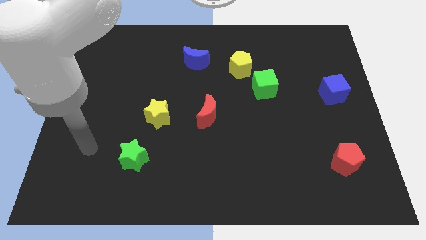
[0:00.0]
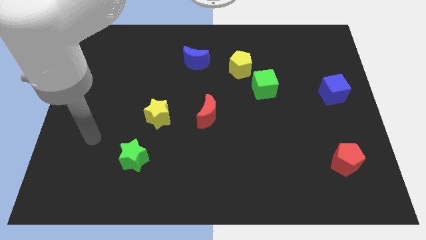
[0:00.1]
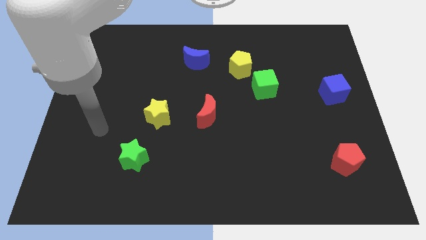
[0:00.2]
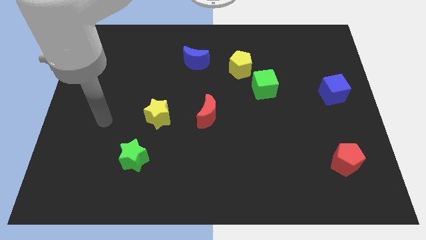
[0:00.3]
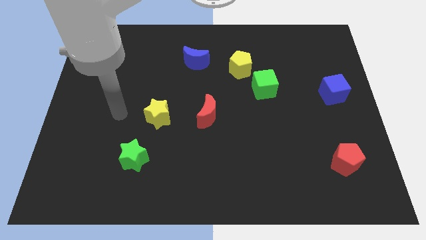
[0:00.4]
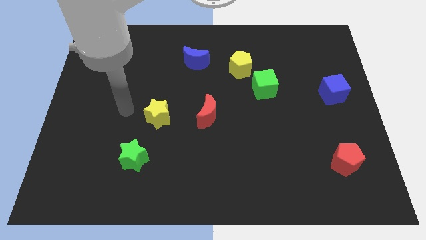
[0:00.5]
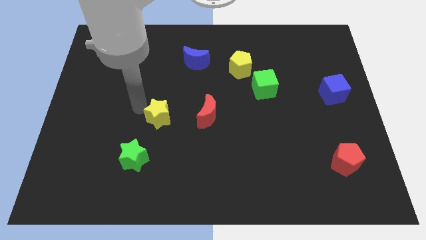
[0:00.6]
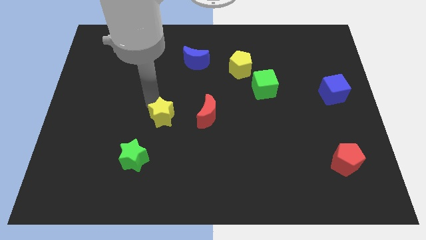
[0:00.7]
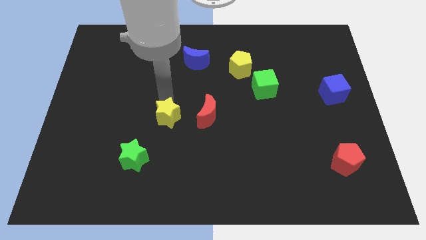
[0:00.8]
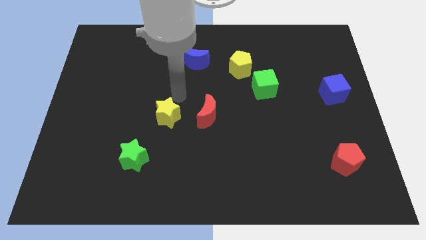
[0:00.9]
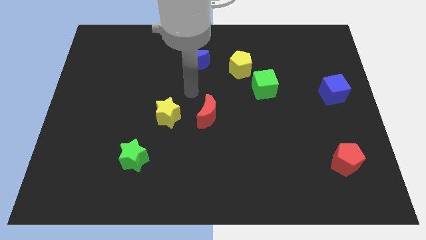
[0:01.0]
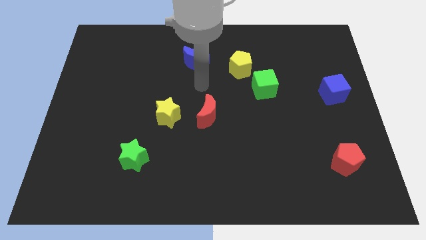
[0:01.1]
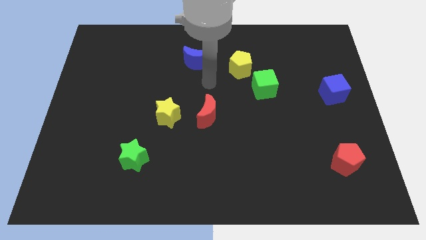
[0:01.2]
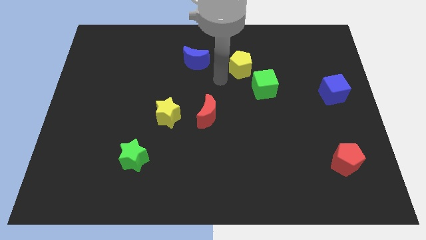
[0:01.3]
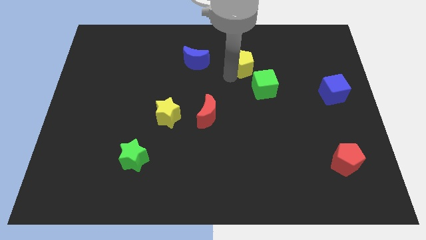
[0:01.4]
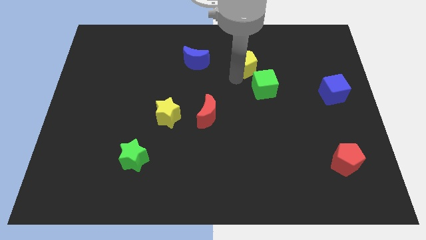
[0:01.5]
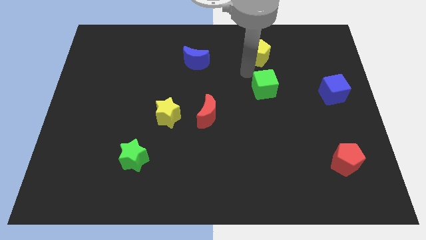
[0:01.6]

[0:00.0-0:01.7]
separate the green cube from the yellow pentagon

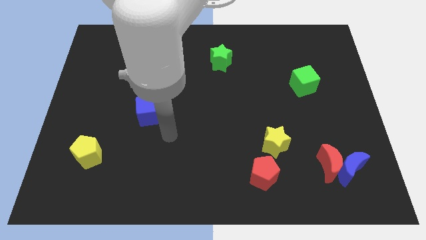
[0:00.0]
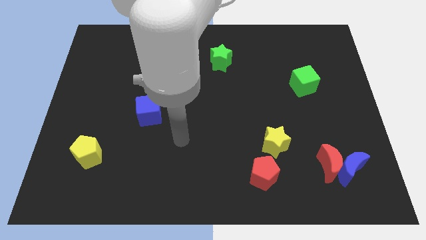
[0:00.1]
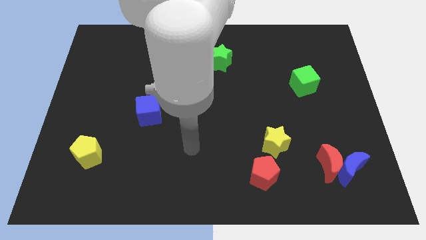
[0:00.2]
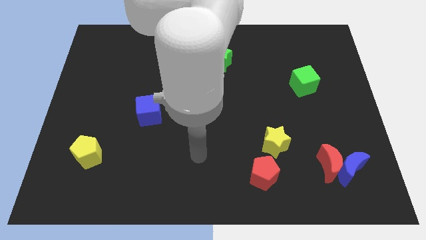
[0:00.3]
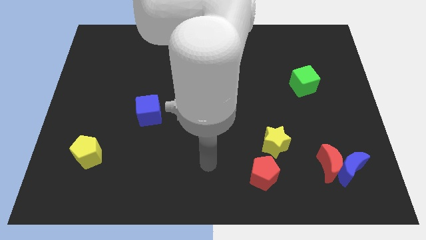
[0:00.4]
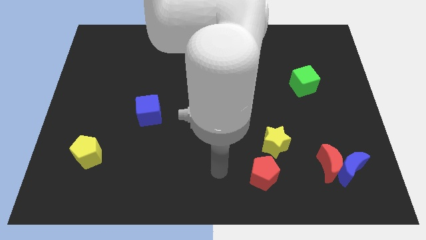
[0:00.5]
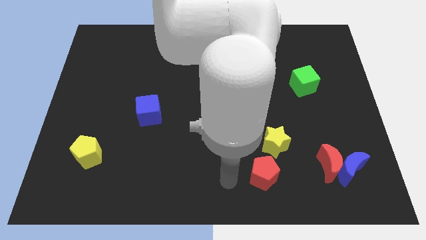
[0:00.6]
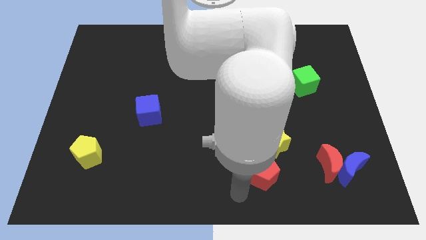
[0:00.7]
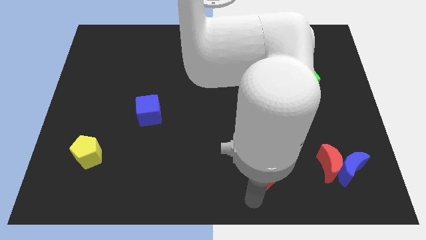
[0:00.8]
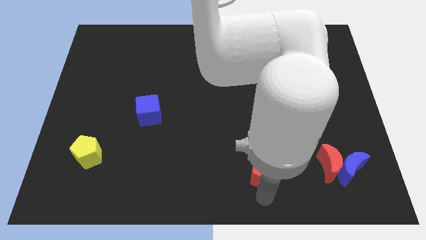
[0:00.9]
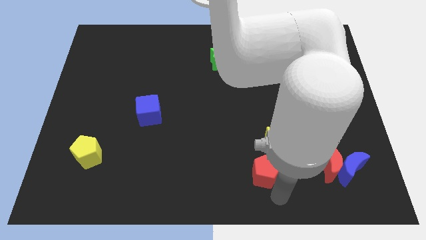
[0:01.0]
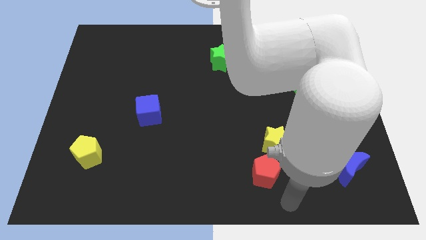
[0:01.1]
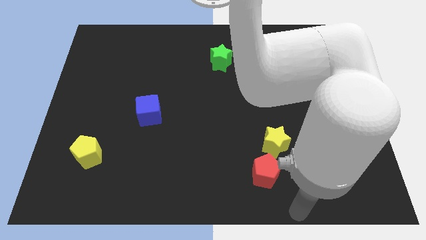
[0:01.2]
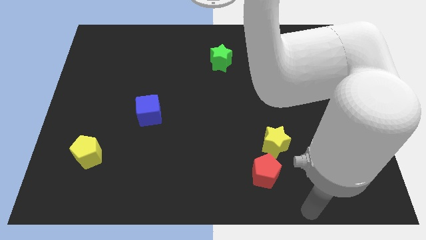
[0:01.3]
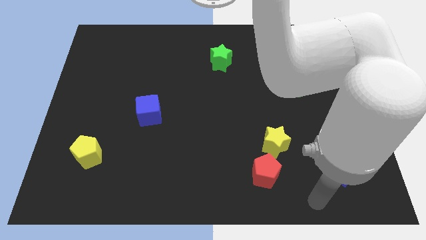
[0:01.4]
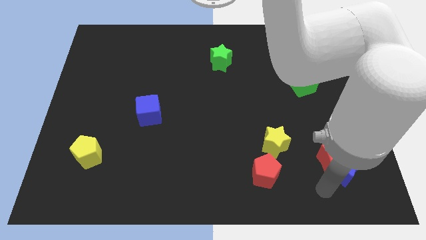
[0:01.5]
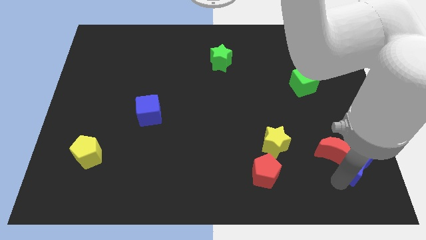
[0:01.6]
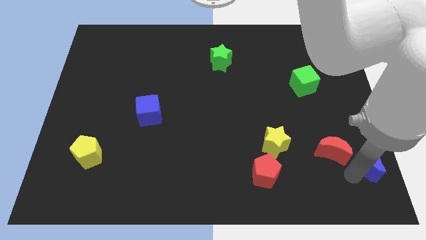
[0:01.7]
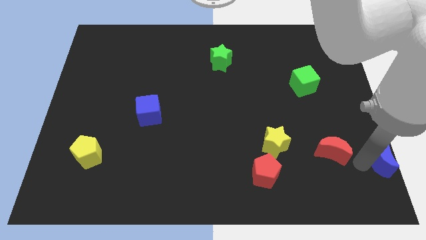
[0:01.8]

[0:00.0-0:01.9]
move the red moon away from the blue moon

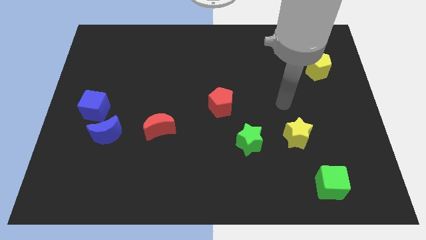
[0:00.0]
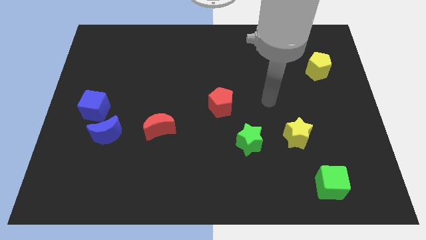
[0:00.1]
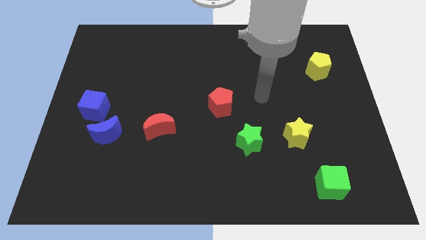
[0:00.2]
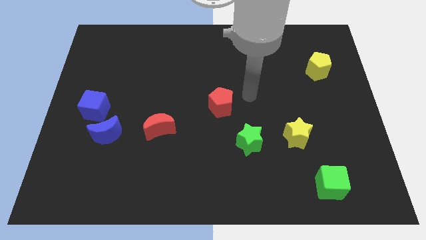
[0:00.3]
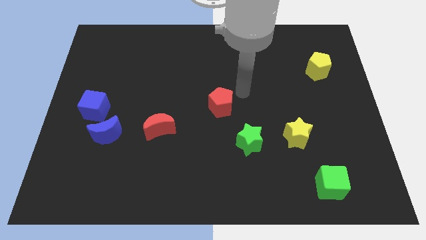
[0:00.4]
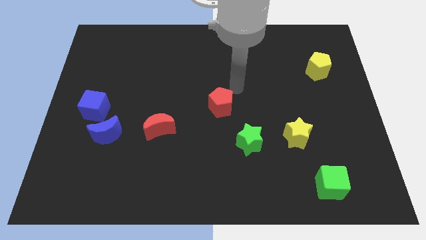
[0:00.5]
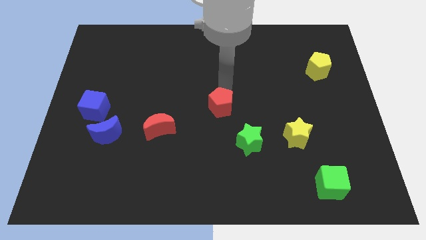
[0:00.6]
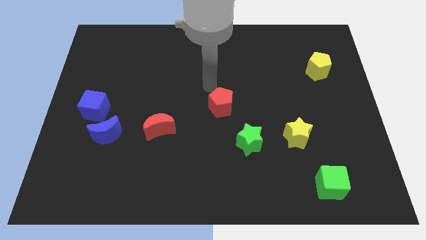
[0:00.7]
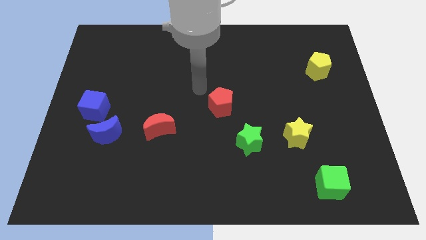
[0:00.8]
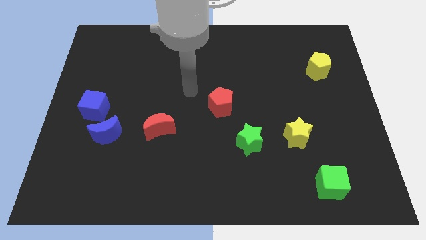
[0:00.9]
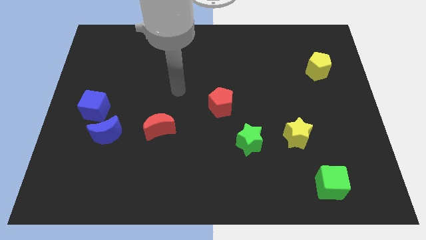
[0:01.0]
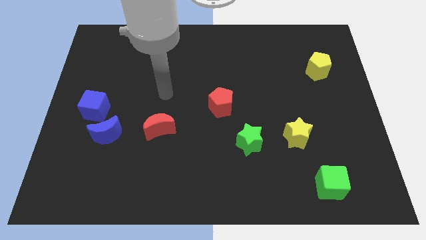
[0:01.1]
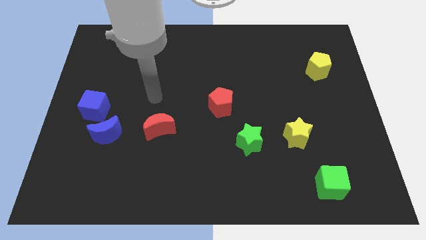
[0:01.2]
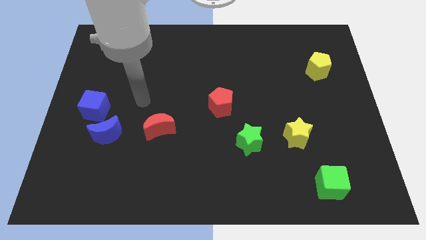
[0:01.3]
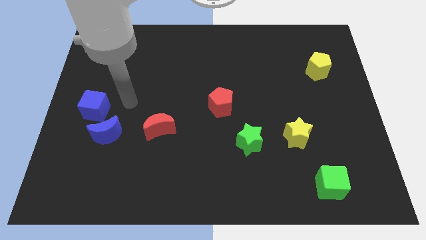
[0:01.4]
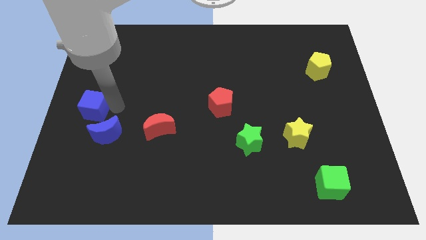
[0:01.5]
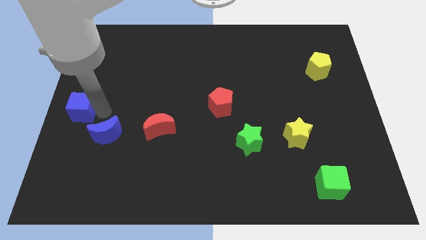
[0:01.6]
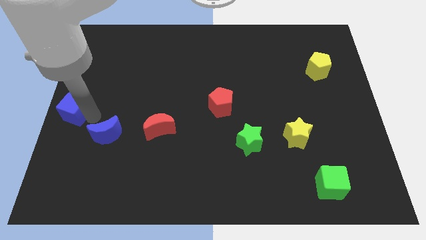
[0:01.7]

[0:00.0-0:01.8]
separate the blue moon from the blue cube

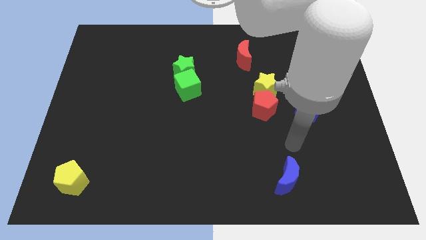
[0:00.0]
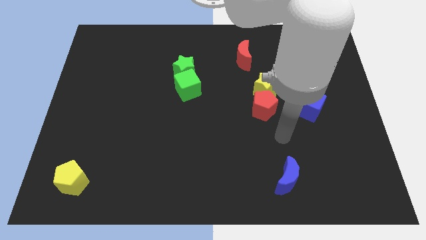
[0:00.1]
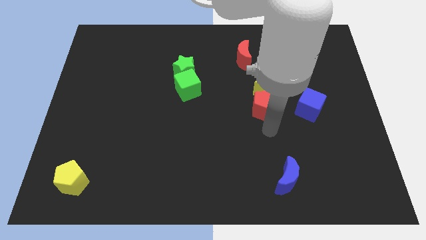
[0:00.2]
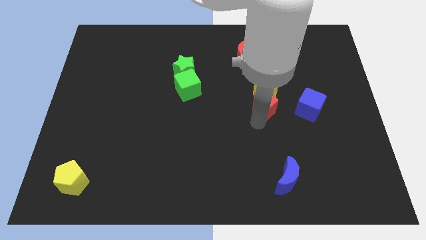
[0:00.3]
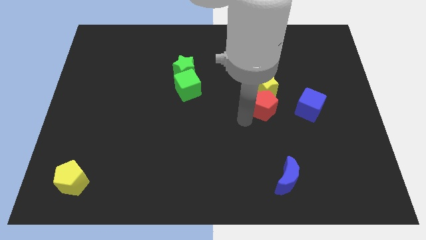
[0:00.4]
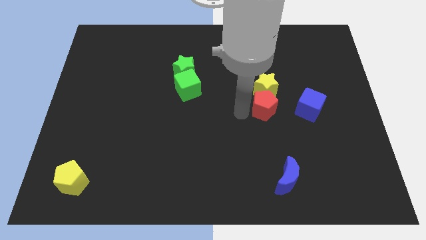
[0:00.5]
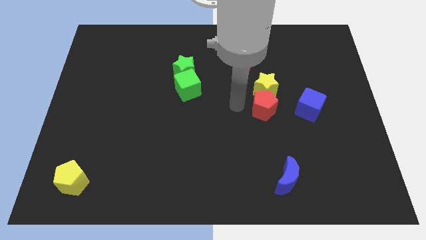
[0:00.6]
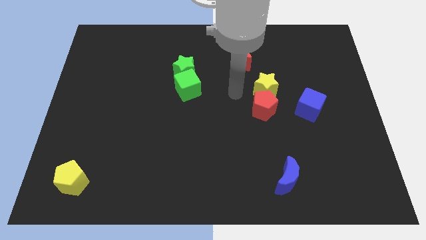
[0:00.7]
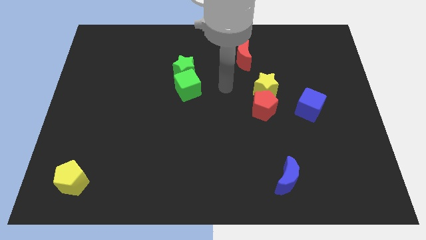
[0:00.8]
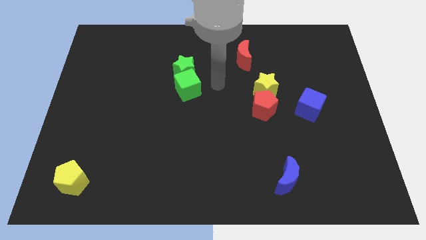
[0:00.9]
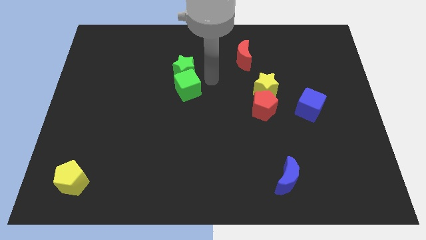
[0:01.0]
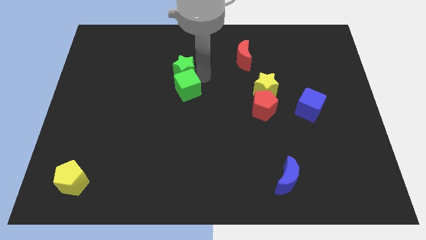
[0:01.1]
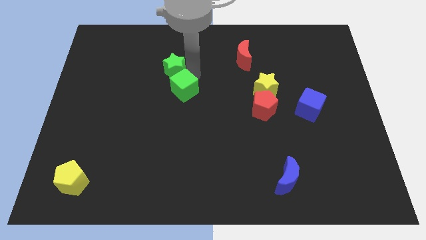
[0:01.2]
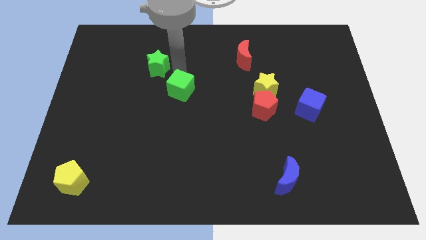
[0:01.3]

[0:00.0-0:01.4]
pull the green cube apart from the green star

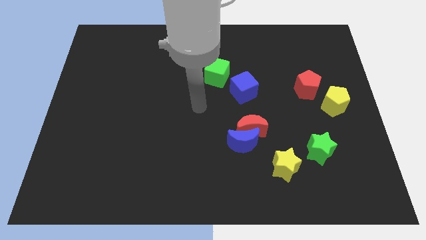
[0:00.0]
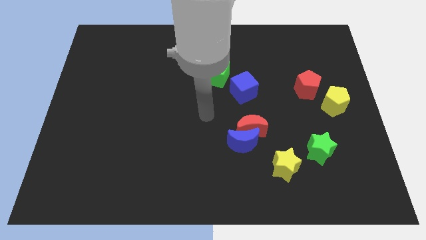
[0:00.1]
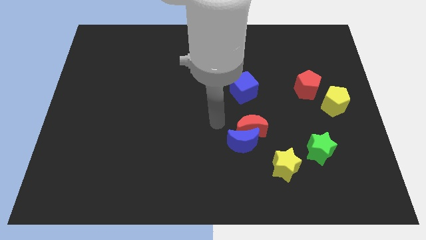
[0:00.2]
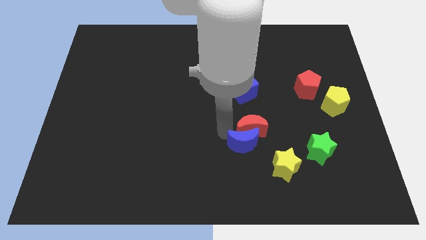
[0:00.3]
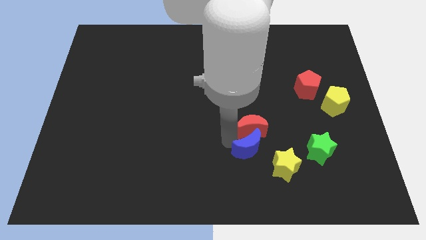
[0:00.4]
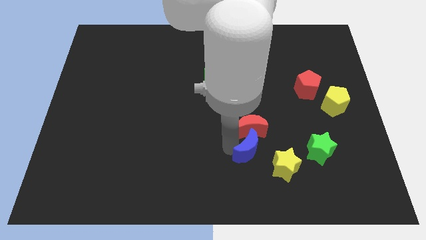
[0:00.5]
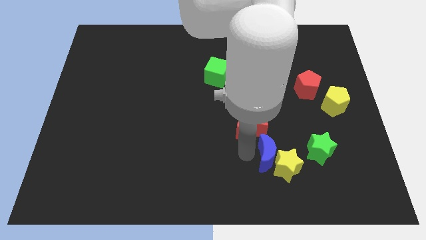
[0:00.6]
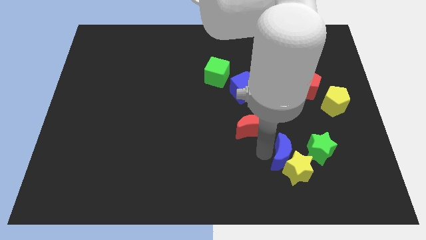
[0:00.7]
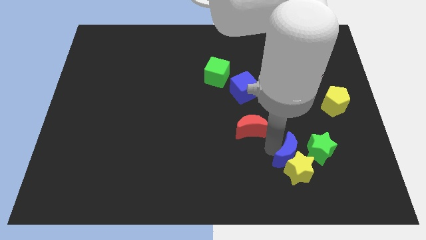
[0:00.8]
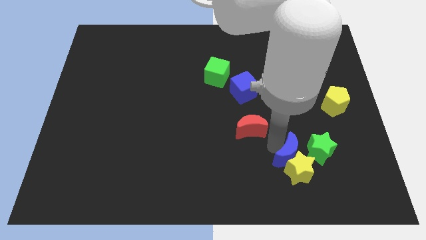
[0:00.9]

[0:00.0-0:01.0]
pull the red moon apart from the blue moon

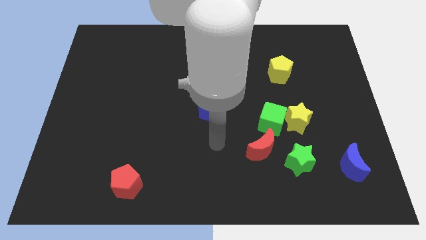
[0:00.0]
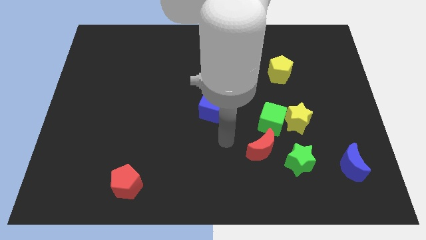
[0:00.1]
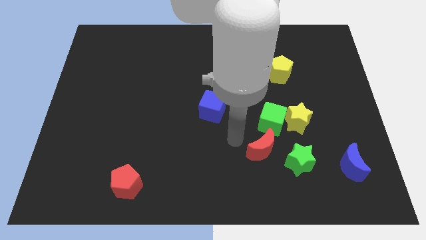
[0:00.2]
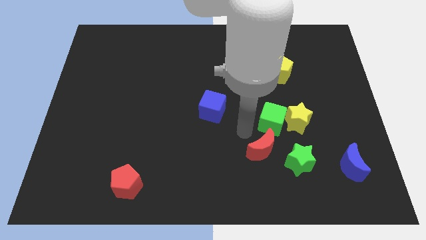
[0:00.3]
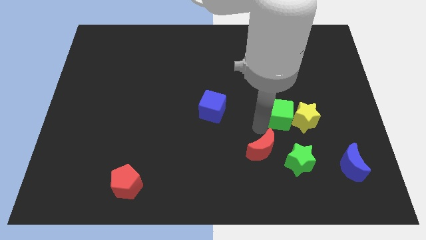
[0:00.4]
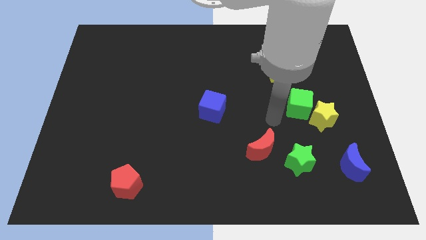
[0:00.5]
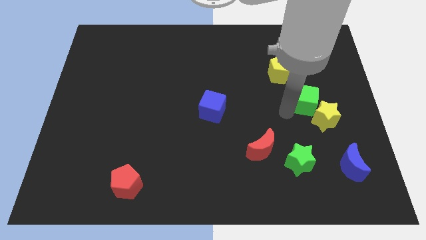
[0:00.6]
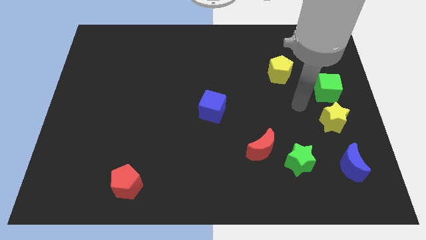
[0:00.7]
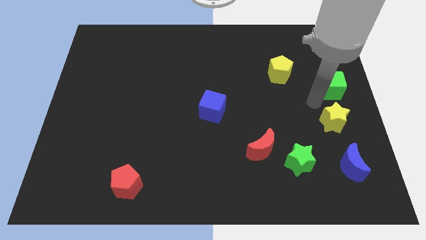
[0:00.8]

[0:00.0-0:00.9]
move the yellow star away from the green cube

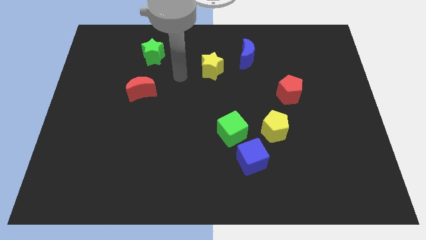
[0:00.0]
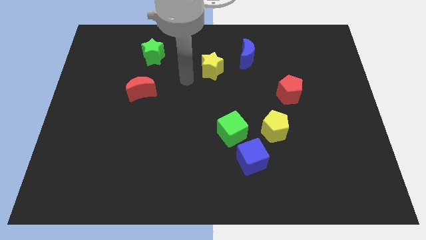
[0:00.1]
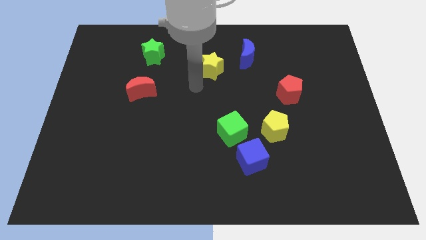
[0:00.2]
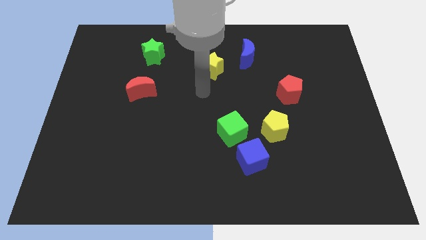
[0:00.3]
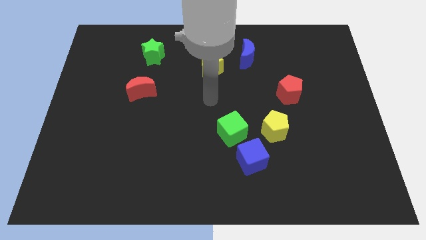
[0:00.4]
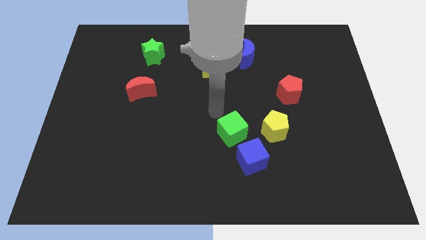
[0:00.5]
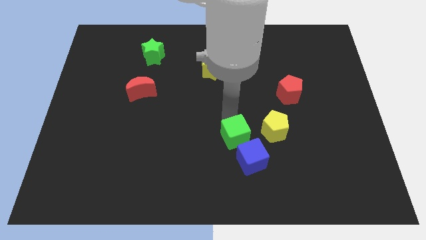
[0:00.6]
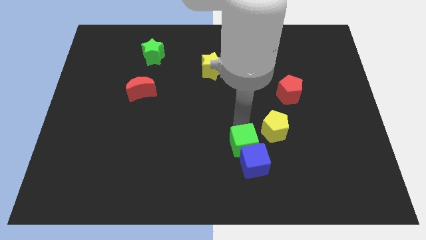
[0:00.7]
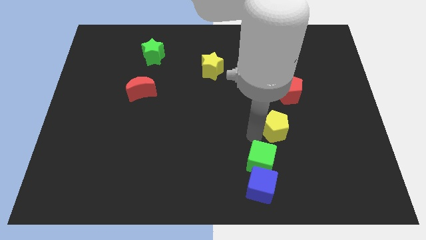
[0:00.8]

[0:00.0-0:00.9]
move the blue cube away from the green cube and yellow pentagon
